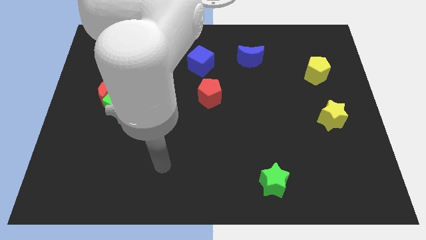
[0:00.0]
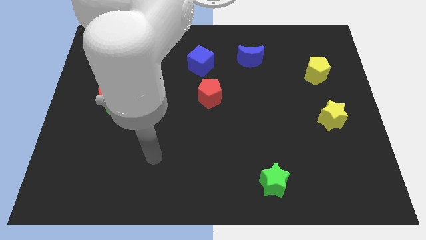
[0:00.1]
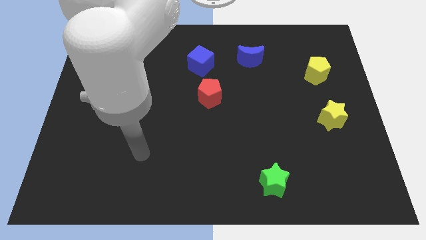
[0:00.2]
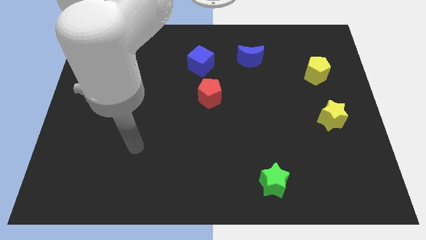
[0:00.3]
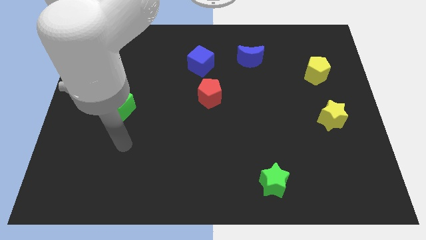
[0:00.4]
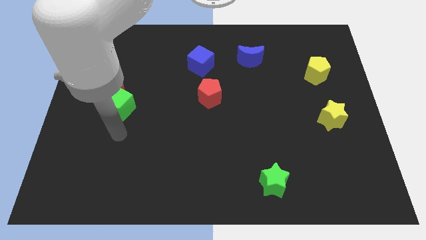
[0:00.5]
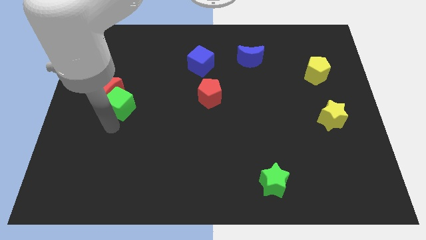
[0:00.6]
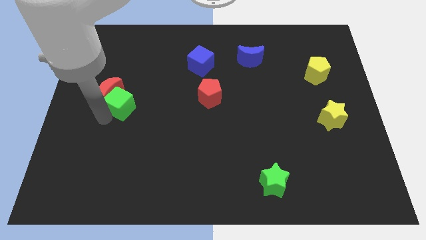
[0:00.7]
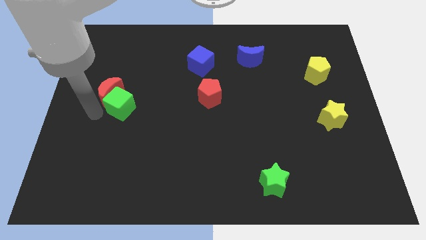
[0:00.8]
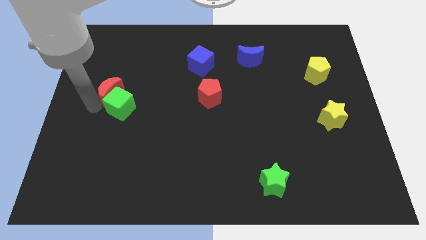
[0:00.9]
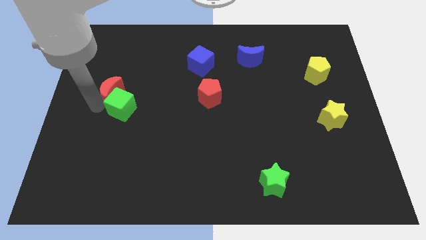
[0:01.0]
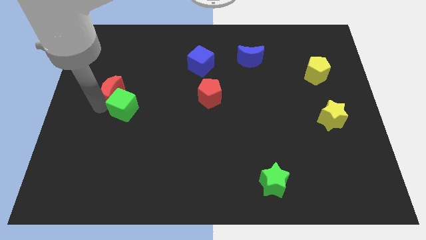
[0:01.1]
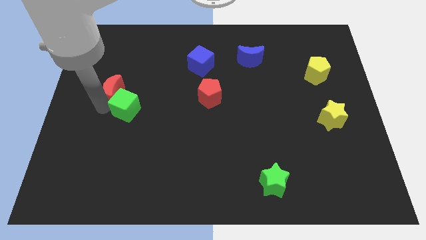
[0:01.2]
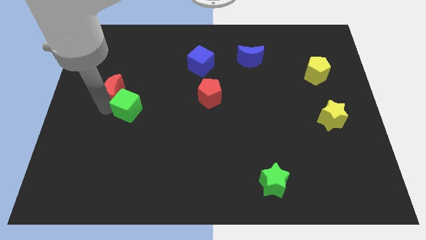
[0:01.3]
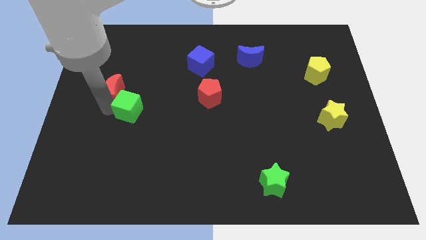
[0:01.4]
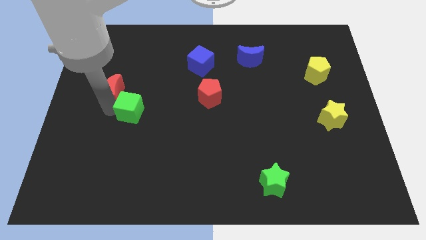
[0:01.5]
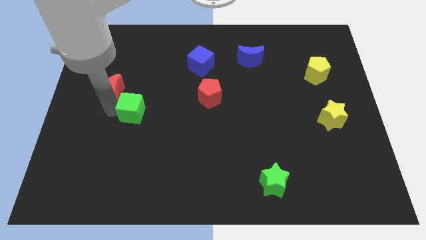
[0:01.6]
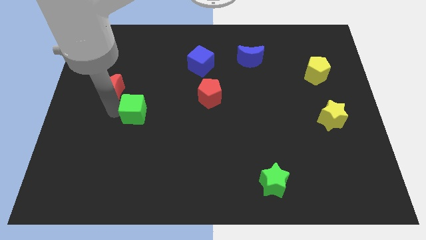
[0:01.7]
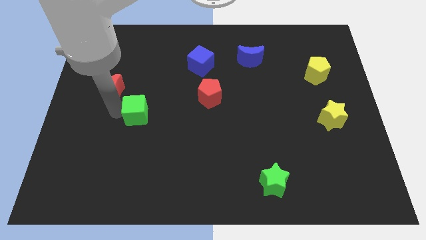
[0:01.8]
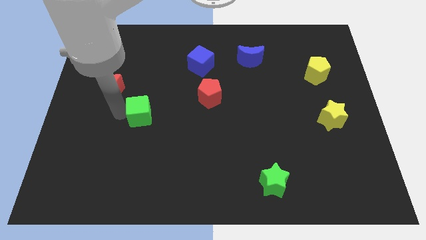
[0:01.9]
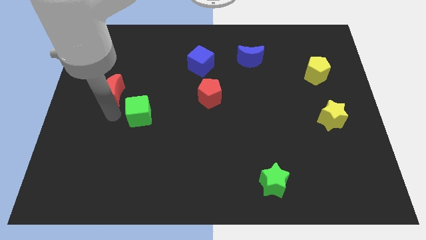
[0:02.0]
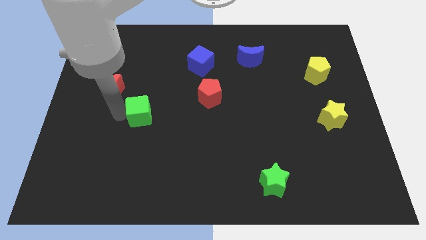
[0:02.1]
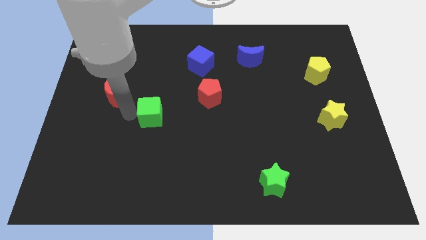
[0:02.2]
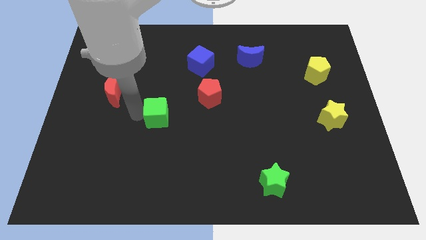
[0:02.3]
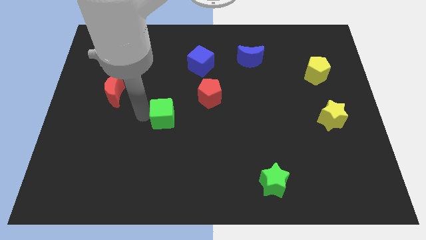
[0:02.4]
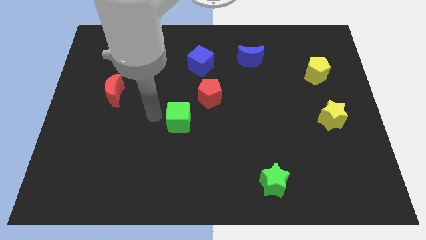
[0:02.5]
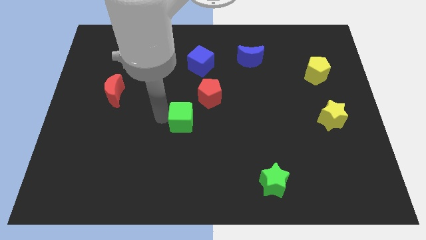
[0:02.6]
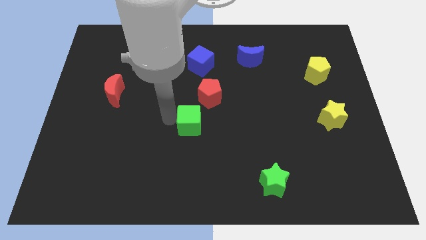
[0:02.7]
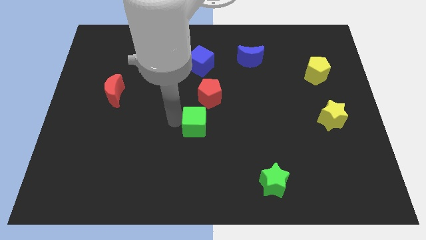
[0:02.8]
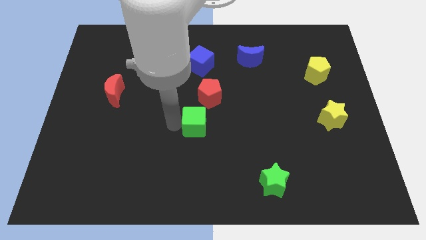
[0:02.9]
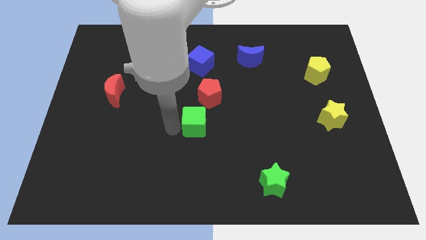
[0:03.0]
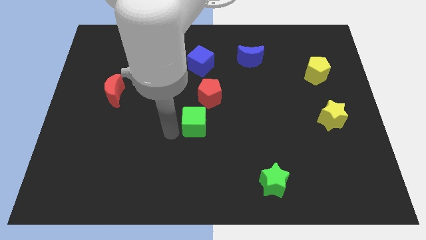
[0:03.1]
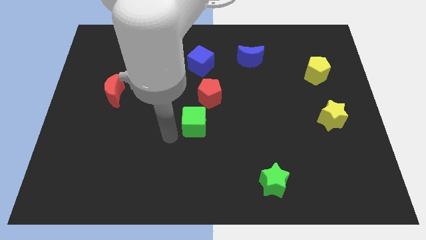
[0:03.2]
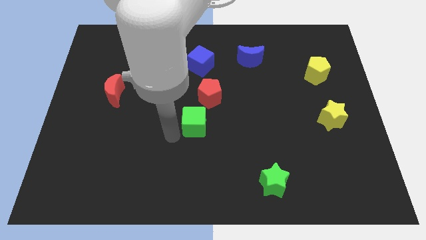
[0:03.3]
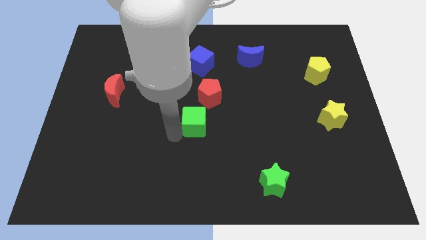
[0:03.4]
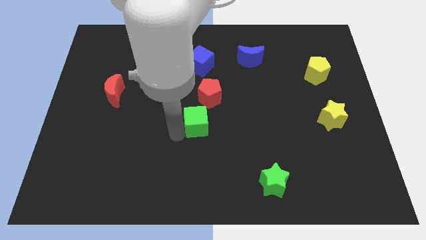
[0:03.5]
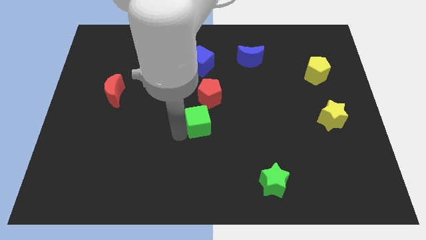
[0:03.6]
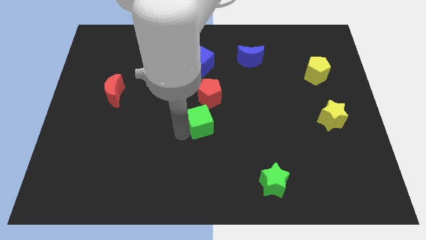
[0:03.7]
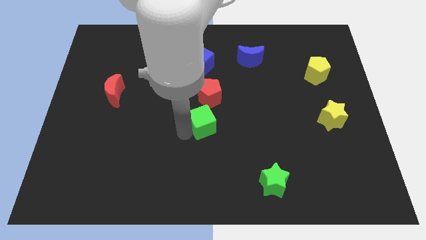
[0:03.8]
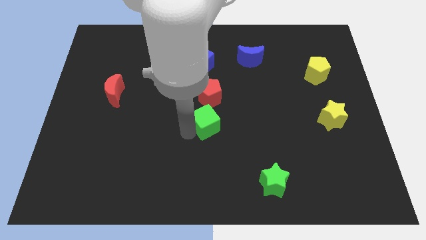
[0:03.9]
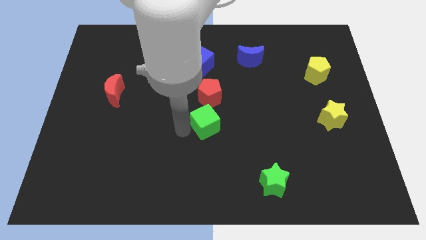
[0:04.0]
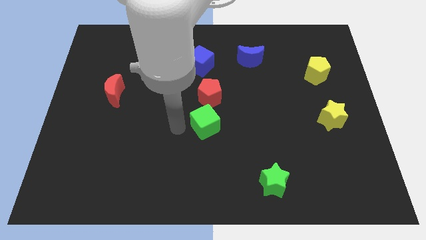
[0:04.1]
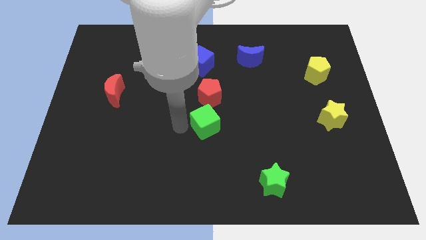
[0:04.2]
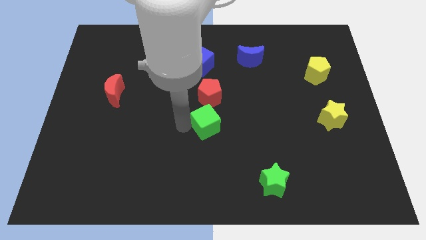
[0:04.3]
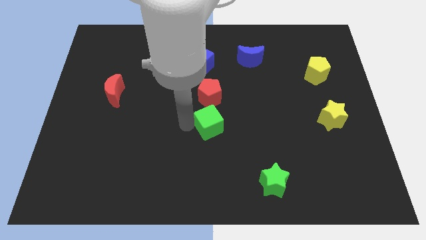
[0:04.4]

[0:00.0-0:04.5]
move the green cube right

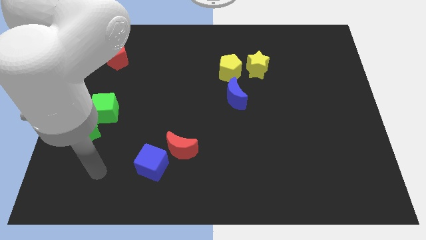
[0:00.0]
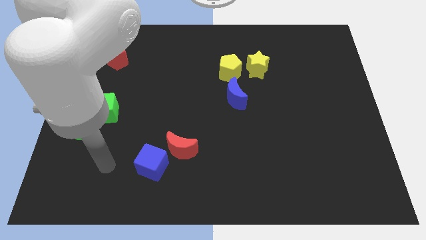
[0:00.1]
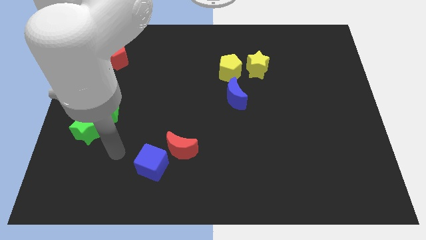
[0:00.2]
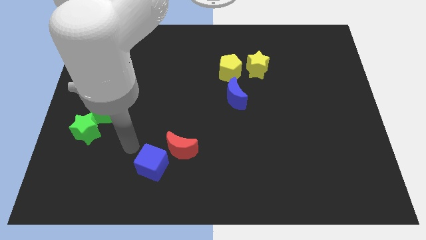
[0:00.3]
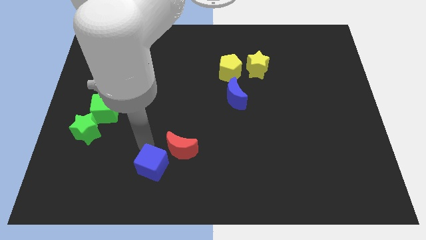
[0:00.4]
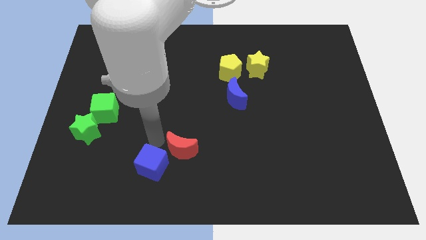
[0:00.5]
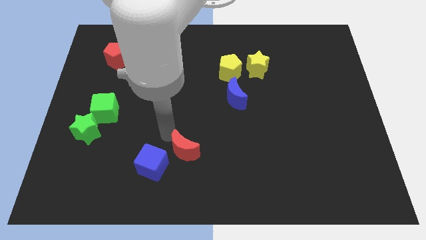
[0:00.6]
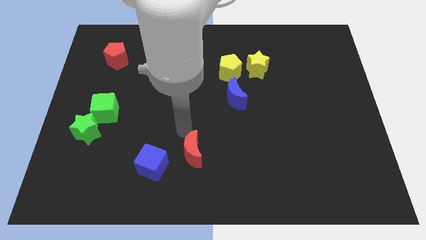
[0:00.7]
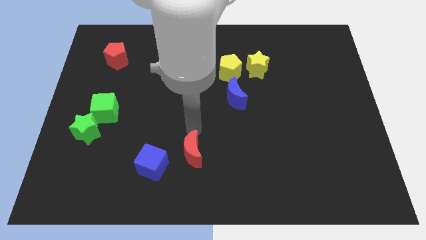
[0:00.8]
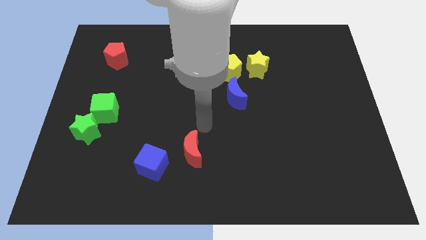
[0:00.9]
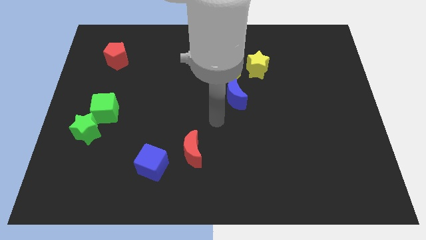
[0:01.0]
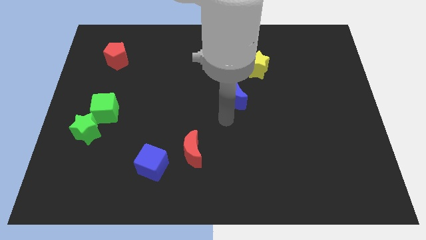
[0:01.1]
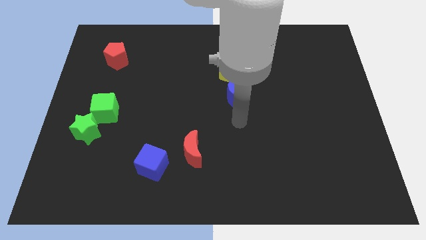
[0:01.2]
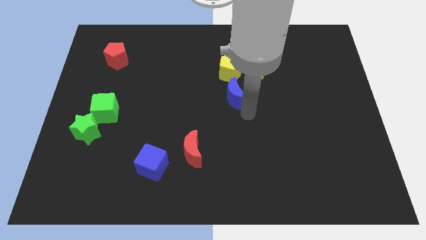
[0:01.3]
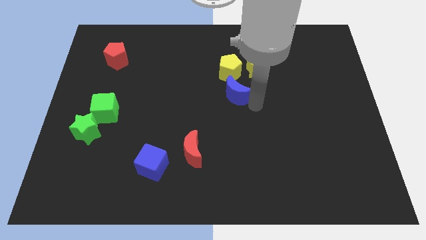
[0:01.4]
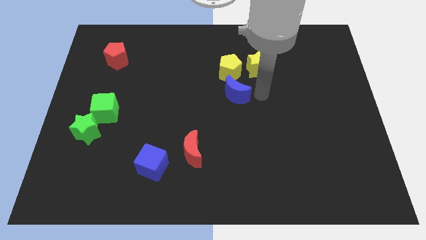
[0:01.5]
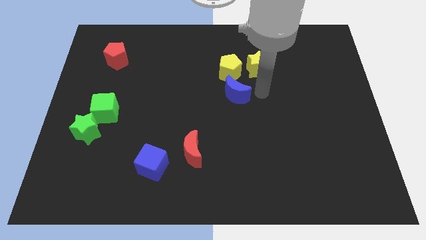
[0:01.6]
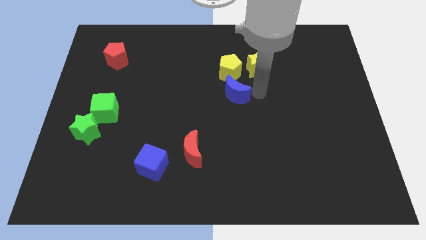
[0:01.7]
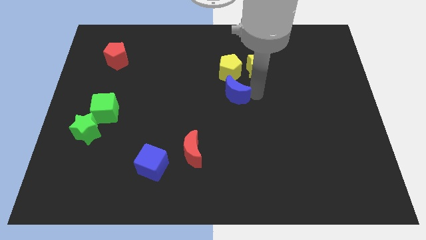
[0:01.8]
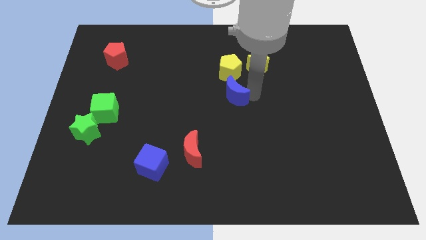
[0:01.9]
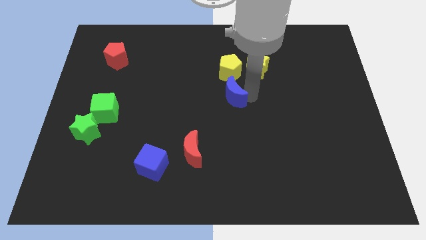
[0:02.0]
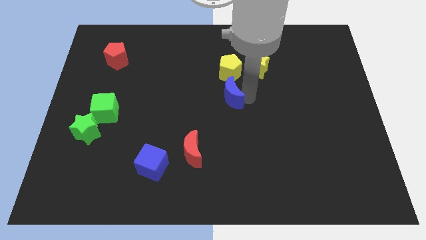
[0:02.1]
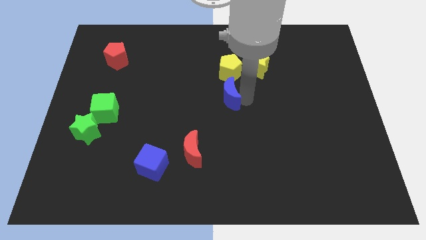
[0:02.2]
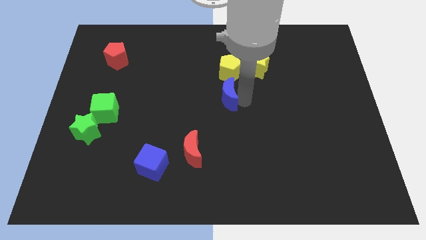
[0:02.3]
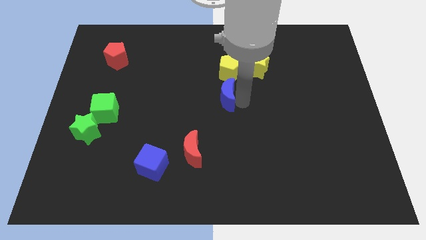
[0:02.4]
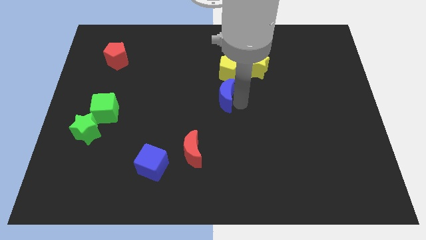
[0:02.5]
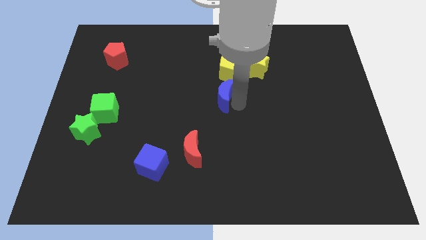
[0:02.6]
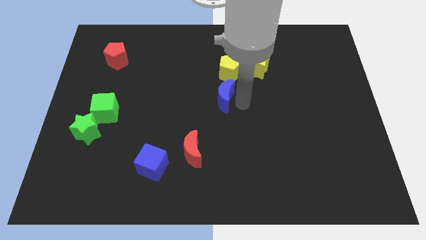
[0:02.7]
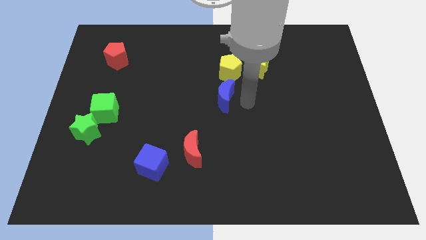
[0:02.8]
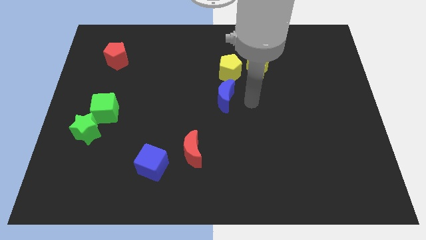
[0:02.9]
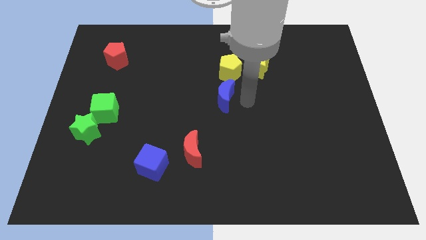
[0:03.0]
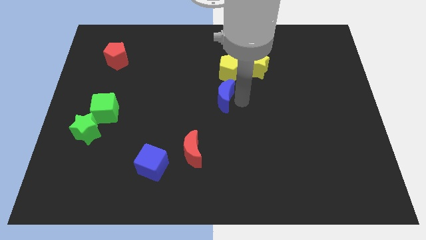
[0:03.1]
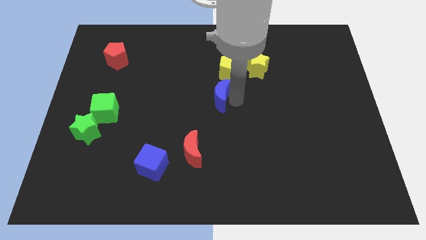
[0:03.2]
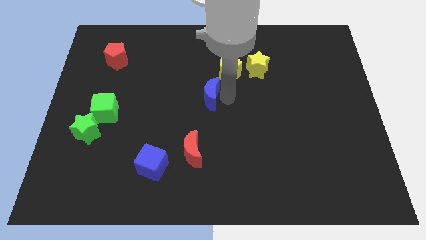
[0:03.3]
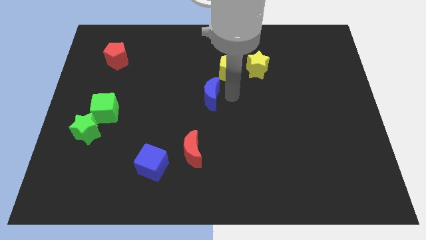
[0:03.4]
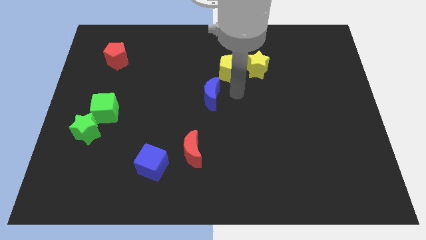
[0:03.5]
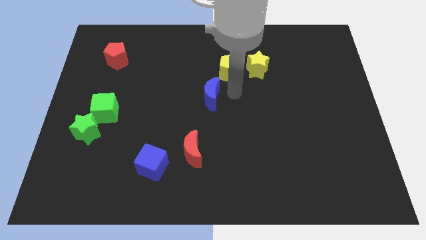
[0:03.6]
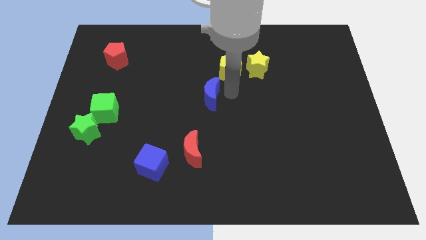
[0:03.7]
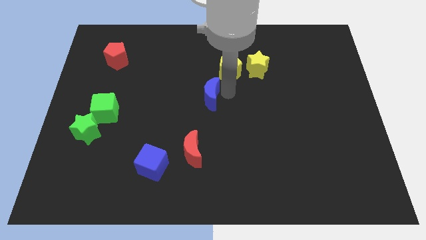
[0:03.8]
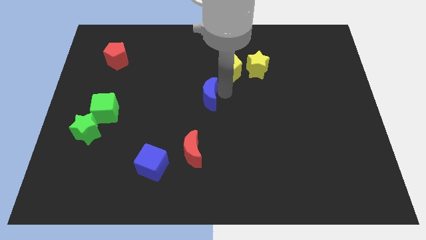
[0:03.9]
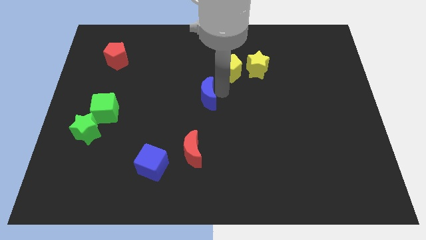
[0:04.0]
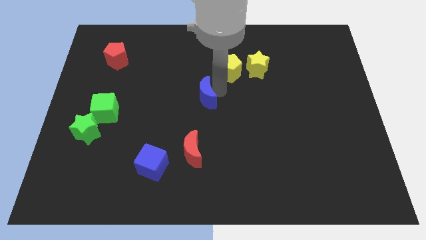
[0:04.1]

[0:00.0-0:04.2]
push the blue moon slightly left
